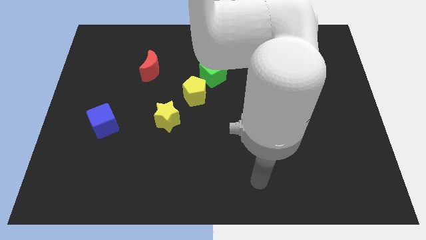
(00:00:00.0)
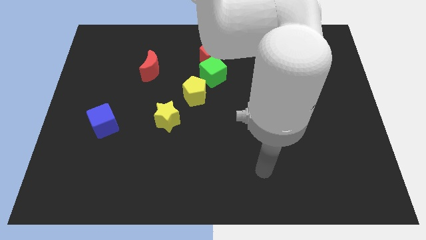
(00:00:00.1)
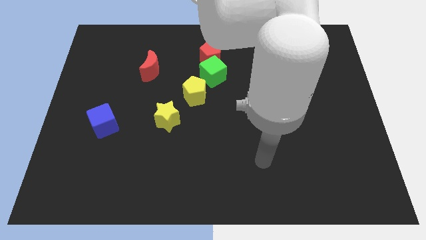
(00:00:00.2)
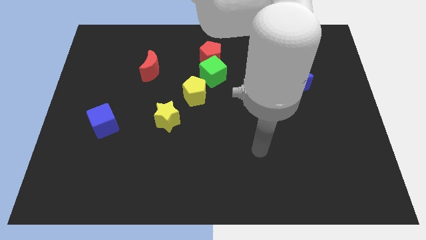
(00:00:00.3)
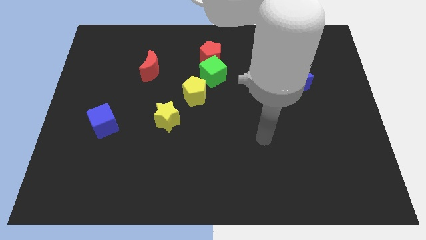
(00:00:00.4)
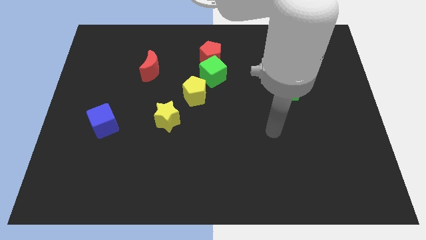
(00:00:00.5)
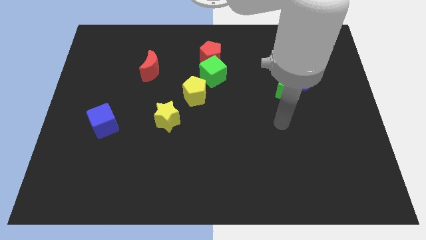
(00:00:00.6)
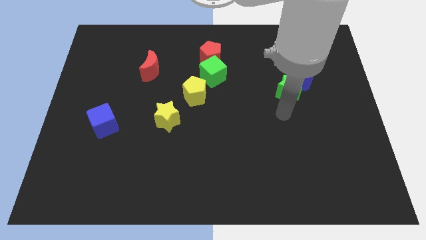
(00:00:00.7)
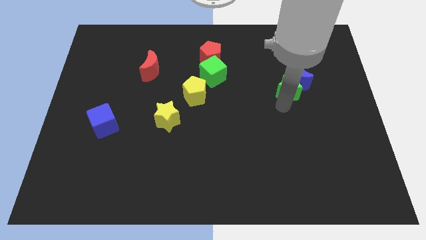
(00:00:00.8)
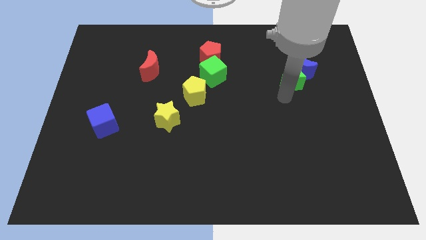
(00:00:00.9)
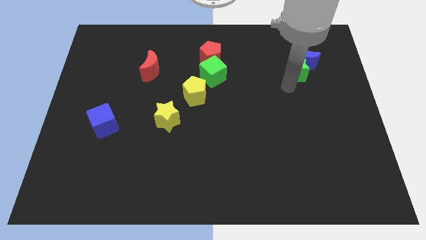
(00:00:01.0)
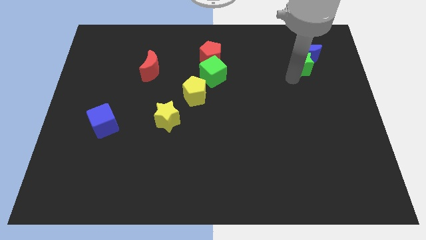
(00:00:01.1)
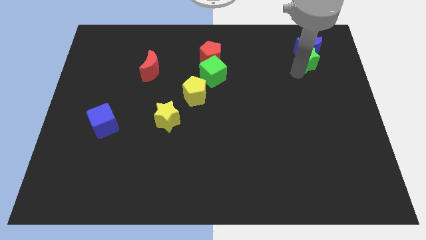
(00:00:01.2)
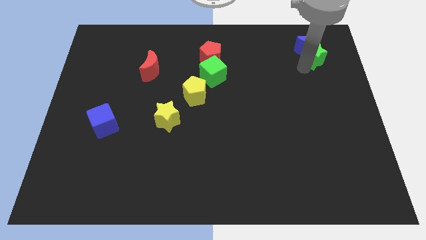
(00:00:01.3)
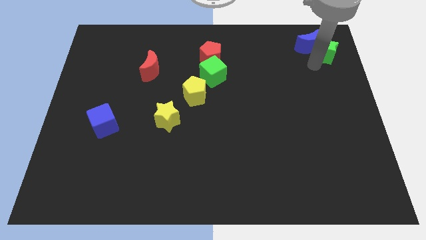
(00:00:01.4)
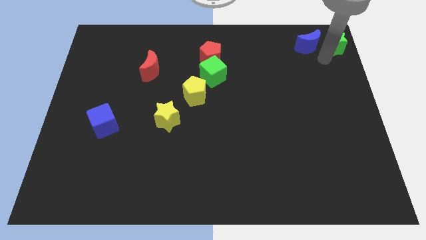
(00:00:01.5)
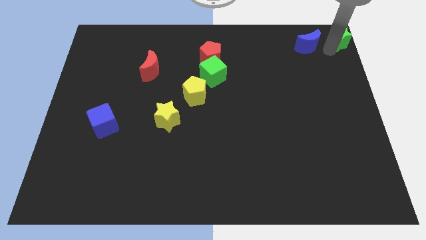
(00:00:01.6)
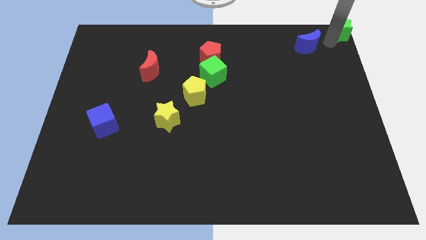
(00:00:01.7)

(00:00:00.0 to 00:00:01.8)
separate the blue moon from the green star

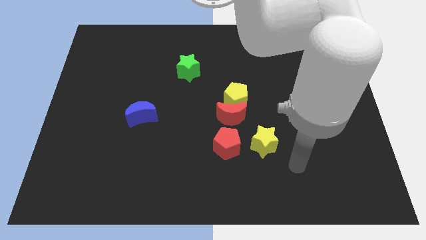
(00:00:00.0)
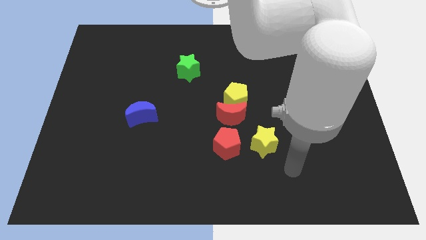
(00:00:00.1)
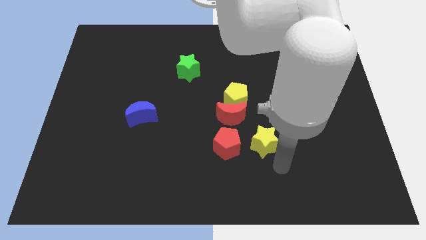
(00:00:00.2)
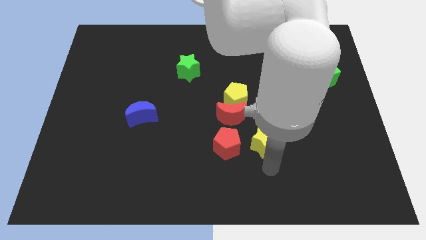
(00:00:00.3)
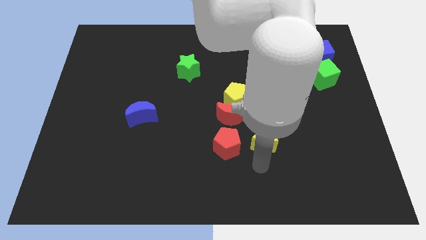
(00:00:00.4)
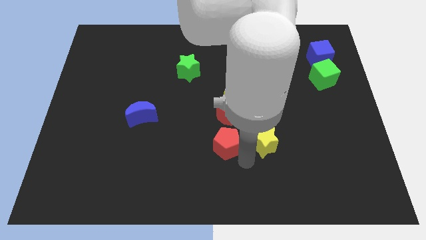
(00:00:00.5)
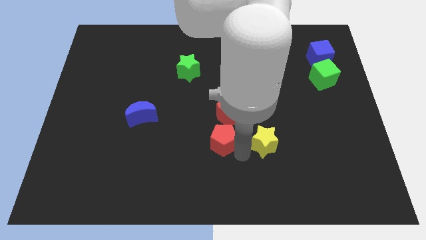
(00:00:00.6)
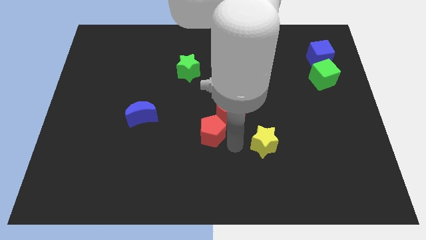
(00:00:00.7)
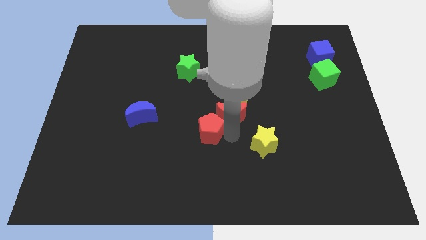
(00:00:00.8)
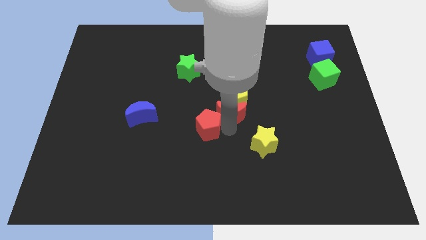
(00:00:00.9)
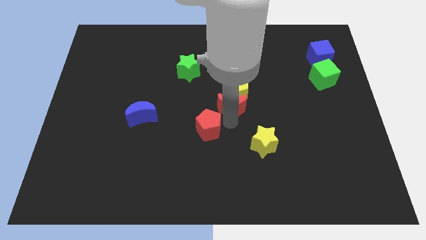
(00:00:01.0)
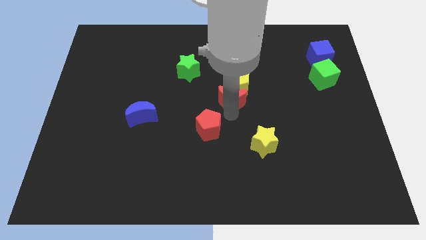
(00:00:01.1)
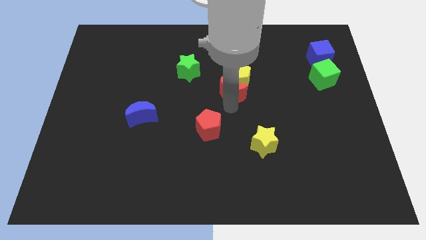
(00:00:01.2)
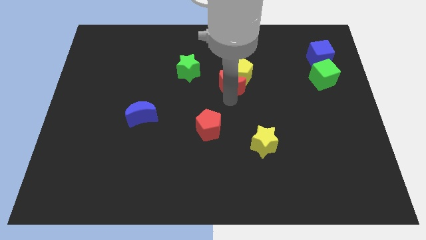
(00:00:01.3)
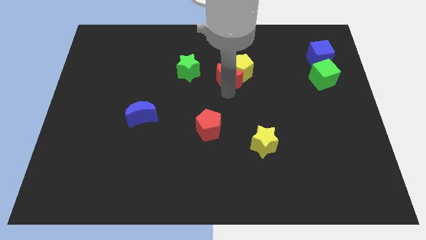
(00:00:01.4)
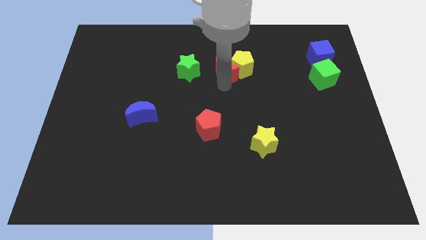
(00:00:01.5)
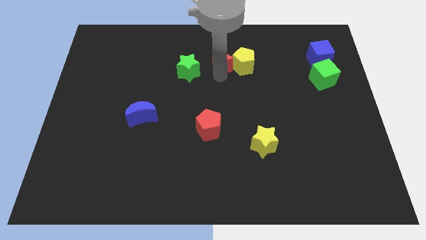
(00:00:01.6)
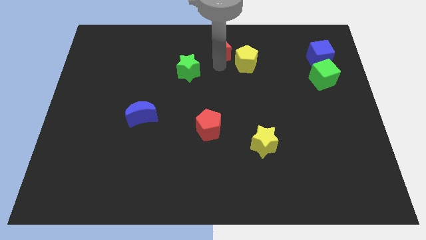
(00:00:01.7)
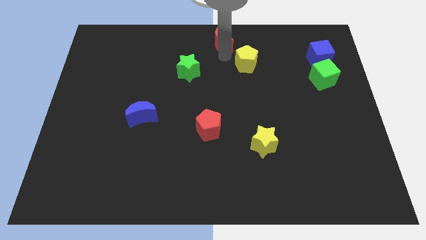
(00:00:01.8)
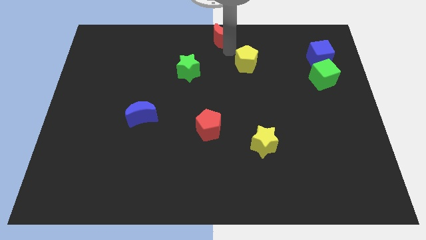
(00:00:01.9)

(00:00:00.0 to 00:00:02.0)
separate the yellow pentagon from the red moon

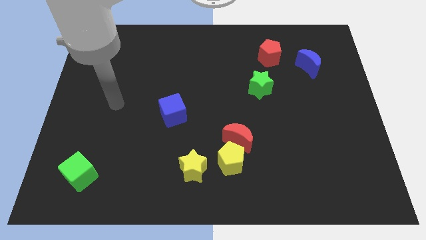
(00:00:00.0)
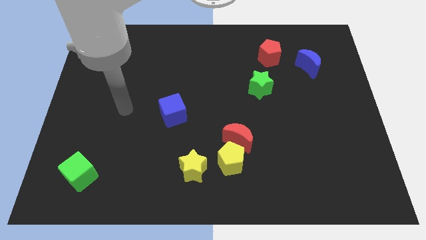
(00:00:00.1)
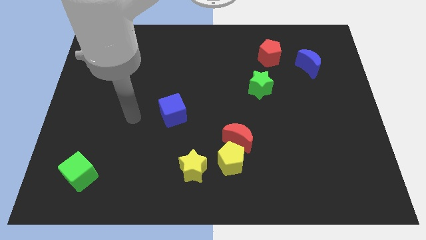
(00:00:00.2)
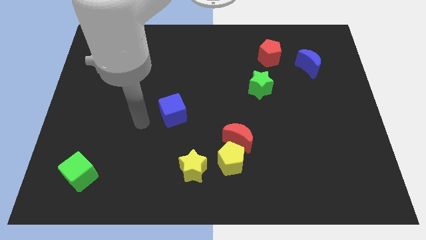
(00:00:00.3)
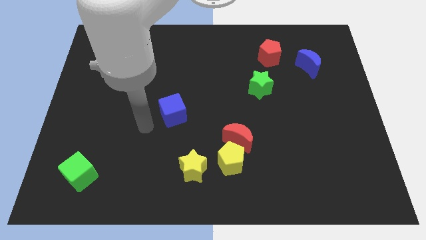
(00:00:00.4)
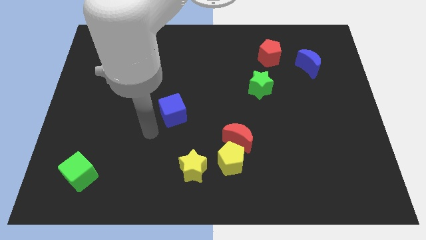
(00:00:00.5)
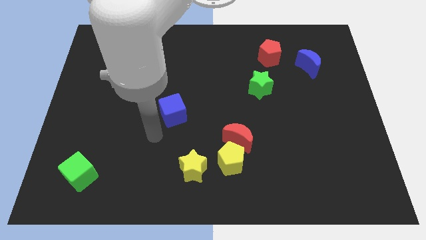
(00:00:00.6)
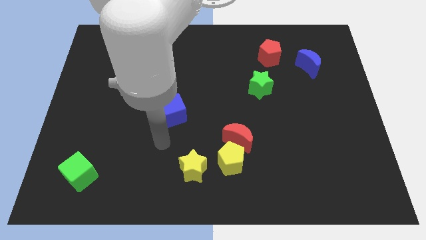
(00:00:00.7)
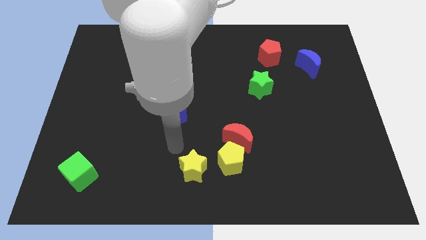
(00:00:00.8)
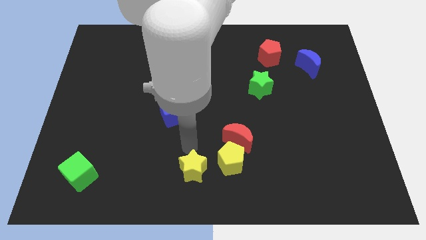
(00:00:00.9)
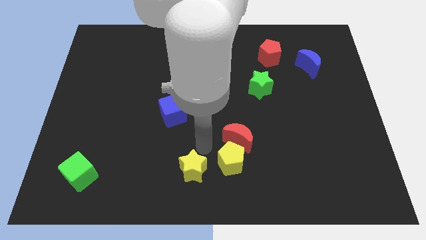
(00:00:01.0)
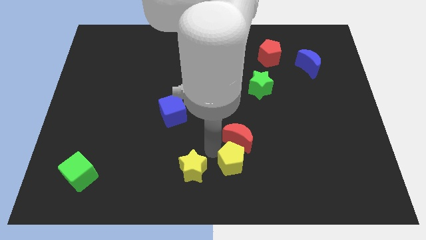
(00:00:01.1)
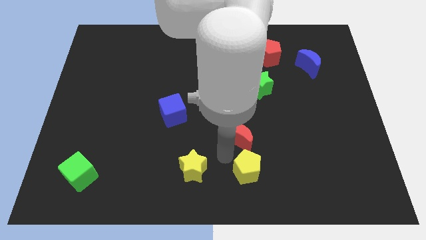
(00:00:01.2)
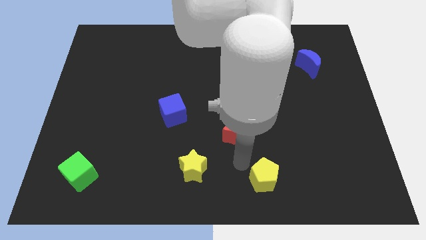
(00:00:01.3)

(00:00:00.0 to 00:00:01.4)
pull the red moon apart from the yellow pentagon

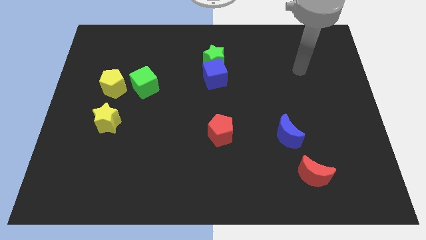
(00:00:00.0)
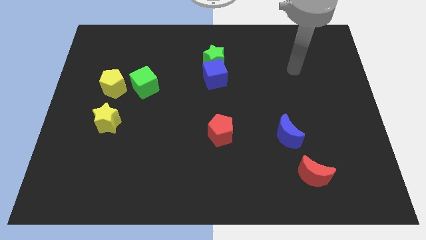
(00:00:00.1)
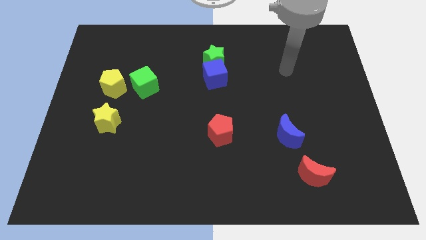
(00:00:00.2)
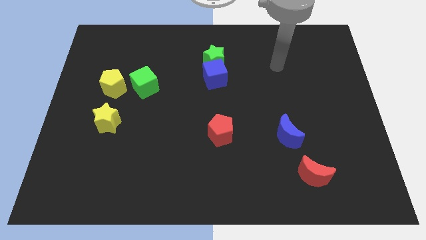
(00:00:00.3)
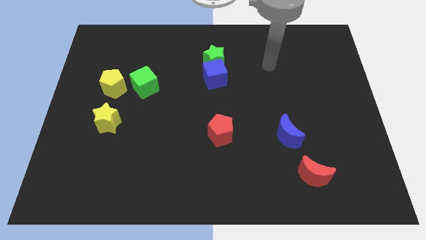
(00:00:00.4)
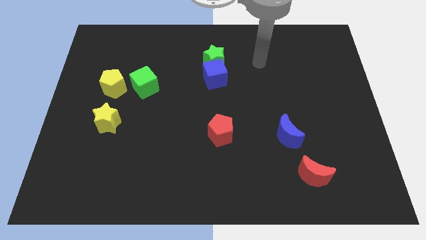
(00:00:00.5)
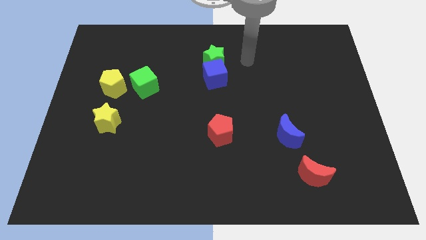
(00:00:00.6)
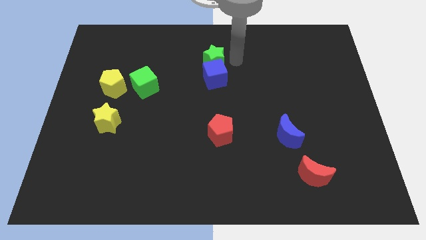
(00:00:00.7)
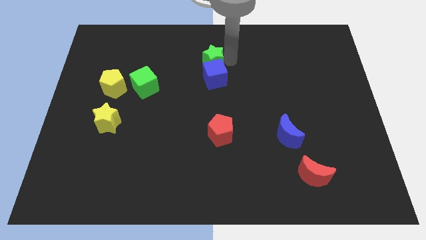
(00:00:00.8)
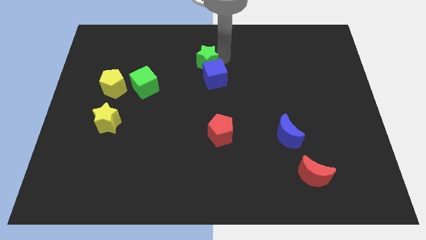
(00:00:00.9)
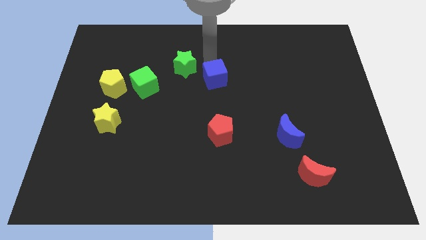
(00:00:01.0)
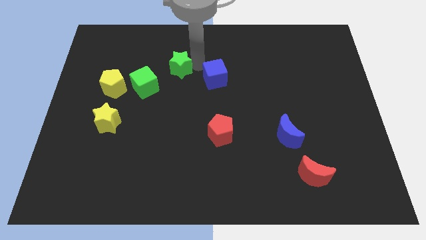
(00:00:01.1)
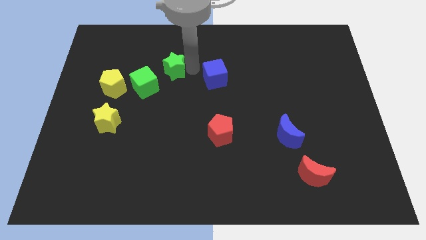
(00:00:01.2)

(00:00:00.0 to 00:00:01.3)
separate the blue cube from the green star

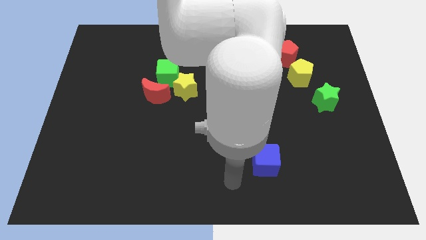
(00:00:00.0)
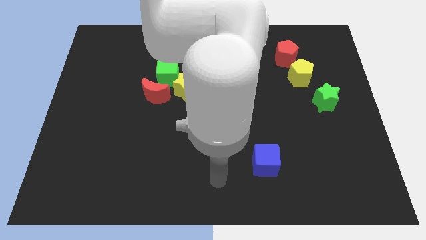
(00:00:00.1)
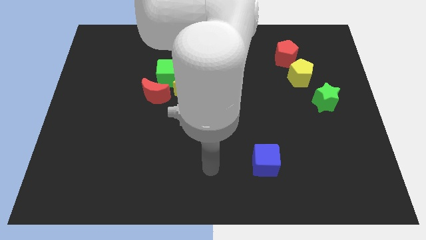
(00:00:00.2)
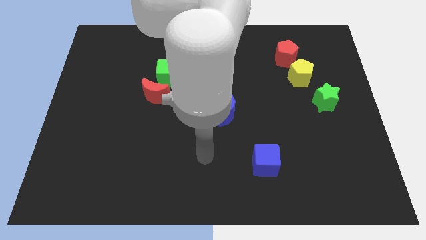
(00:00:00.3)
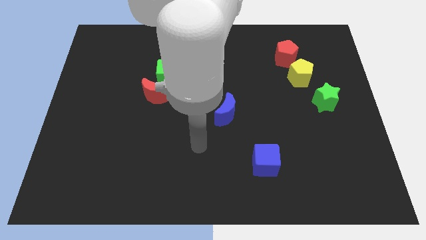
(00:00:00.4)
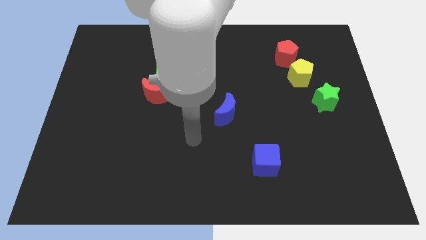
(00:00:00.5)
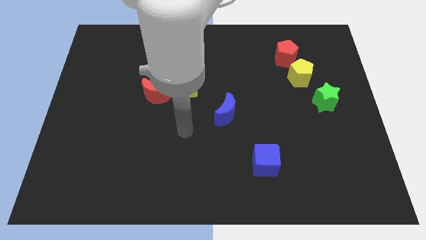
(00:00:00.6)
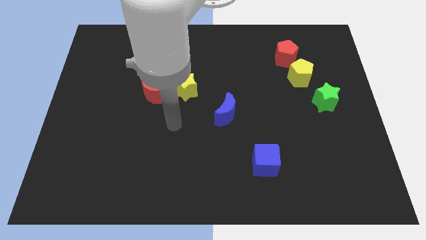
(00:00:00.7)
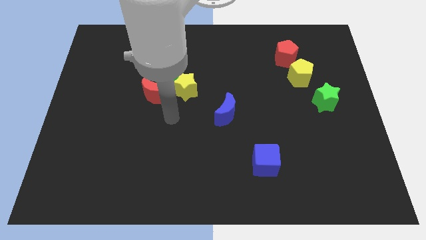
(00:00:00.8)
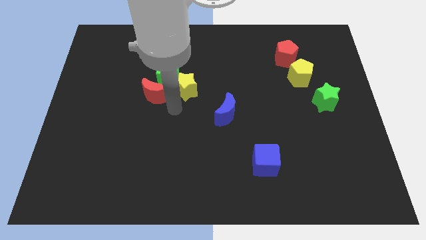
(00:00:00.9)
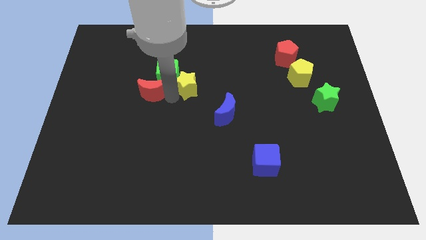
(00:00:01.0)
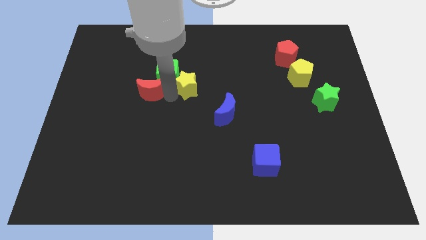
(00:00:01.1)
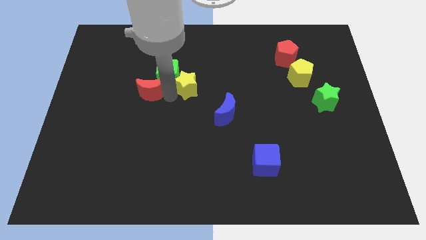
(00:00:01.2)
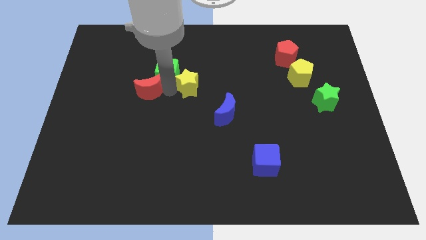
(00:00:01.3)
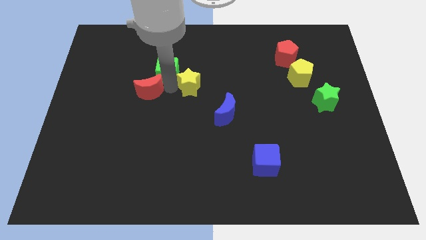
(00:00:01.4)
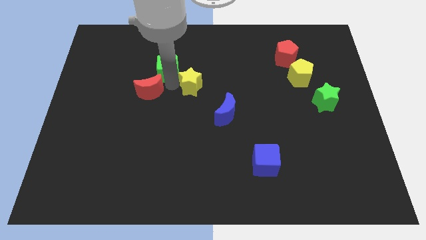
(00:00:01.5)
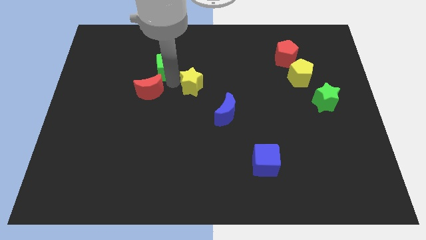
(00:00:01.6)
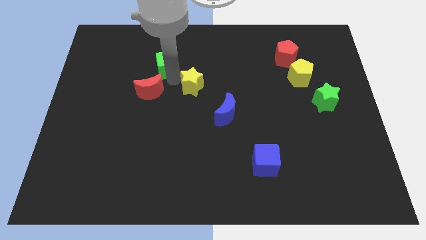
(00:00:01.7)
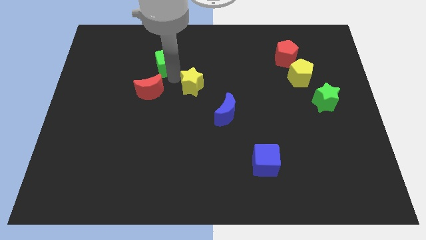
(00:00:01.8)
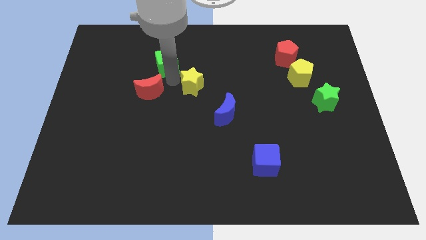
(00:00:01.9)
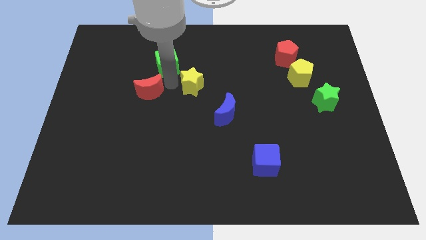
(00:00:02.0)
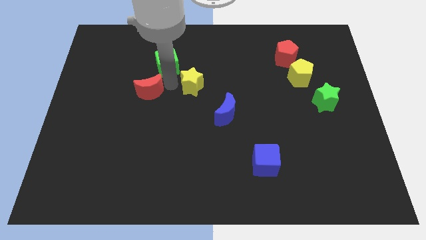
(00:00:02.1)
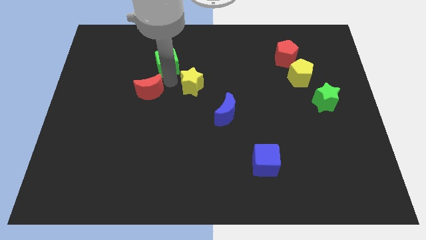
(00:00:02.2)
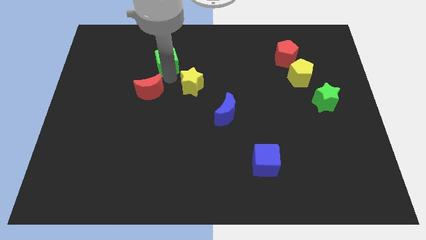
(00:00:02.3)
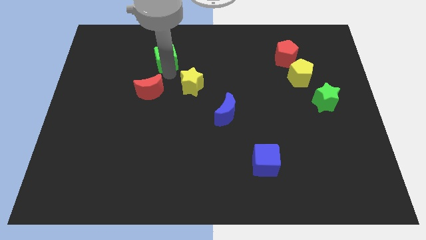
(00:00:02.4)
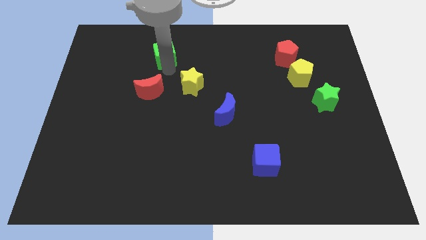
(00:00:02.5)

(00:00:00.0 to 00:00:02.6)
pull the green cube apart from the yellow star and red moon

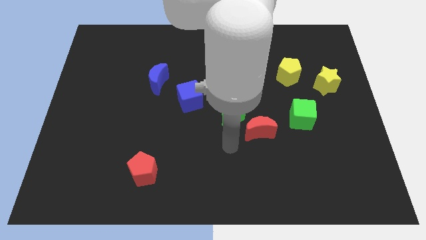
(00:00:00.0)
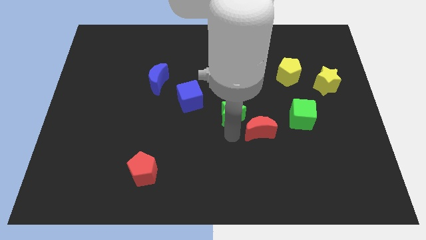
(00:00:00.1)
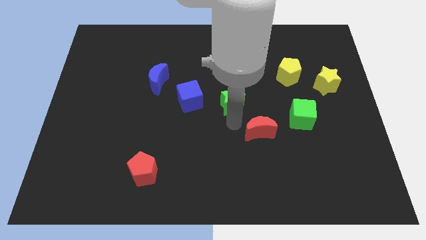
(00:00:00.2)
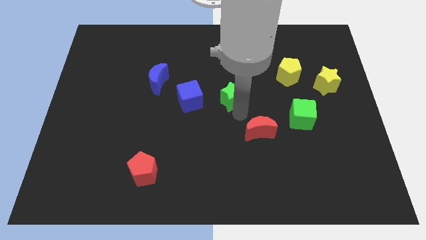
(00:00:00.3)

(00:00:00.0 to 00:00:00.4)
move the red moon away from the green star
